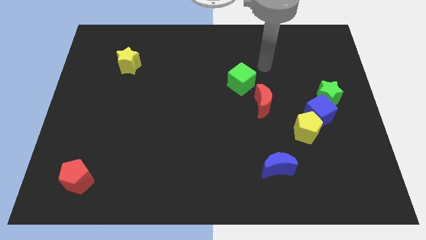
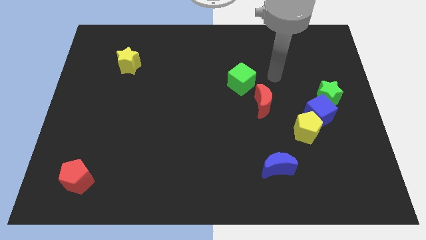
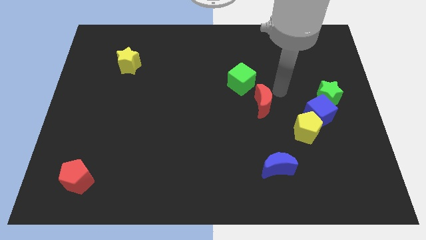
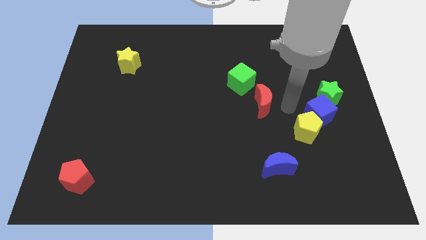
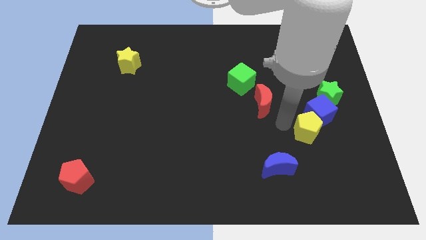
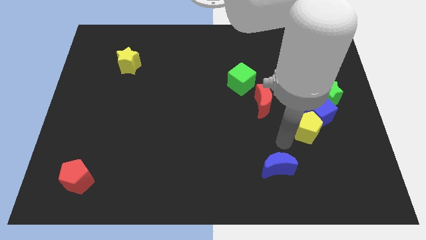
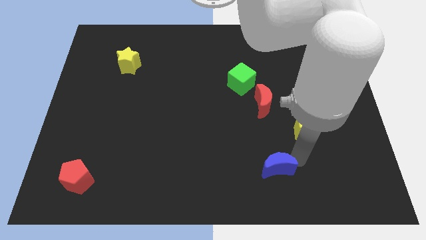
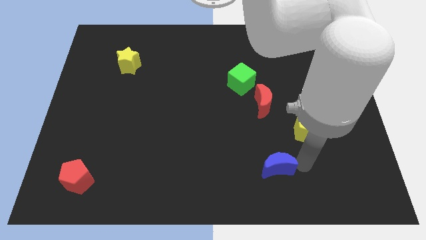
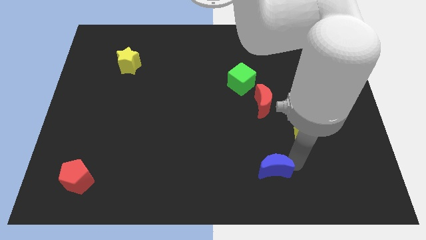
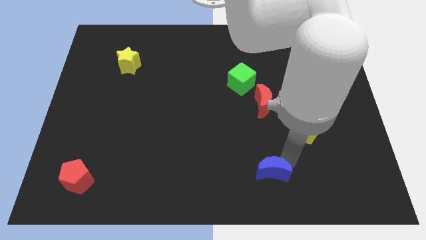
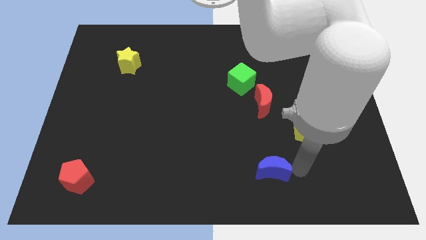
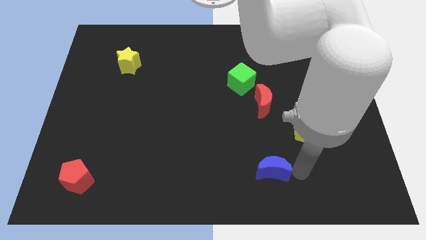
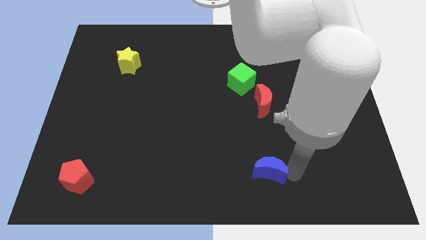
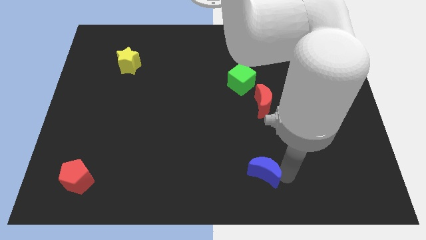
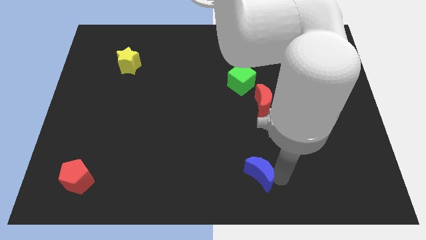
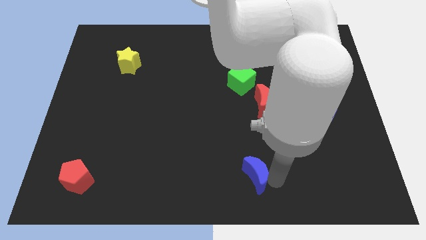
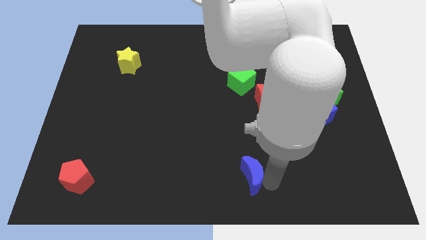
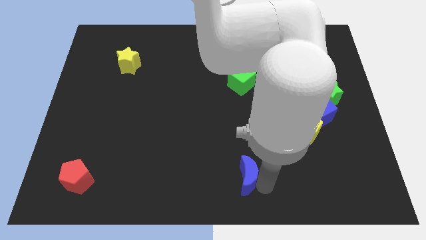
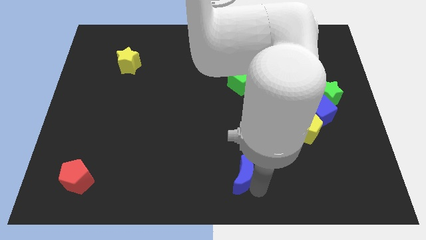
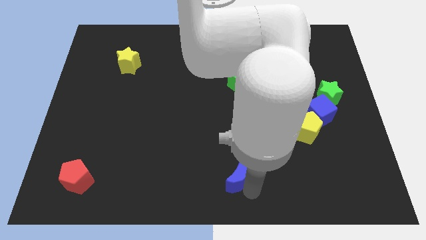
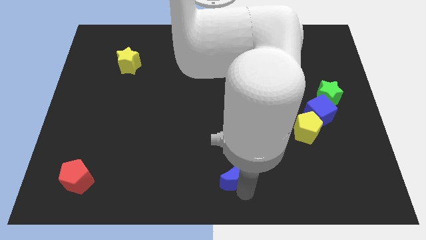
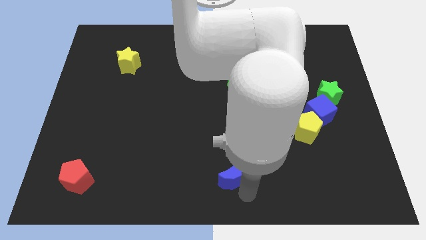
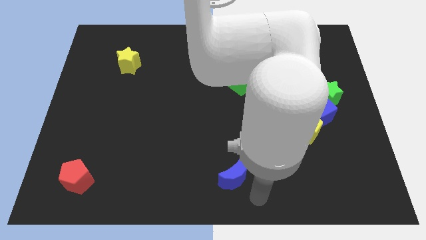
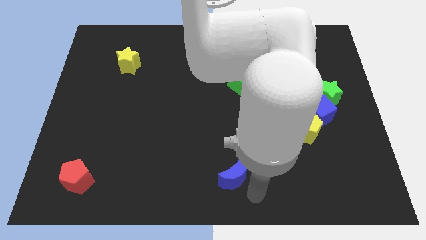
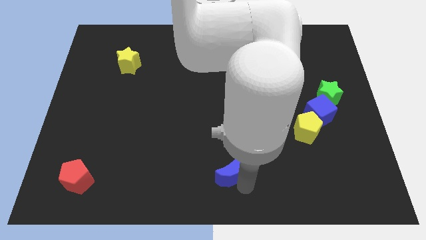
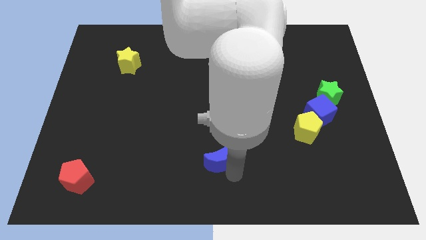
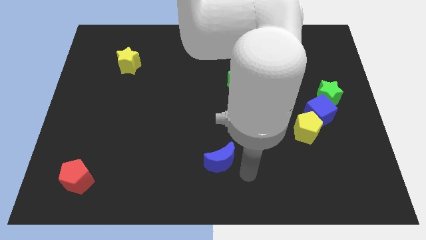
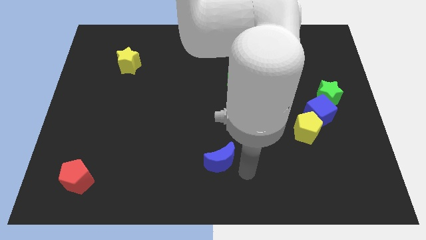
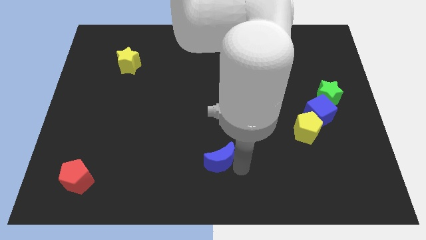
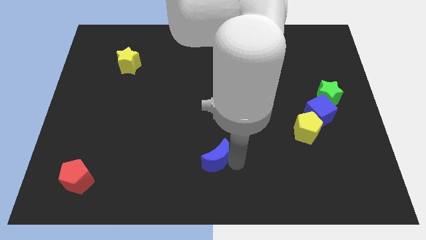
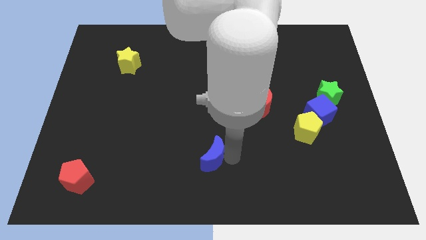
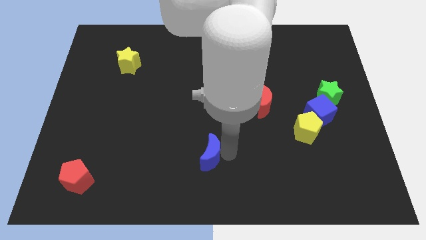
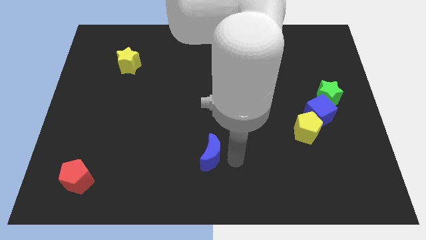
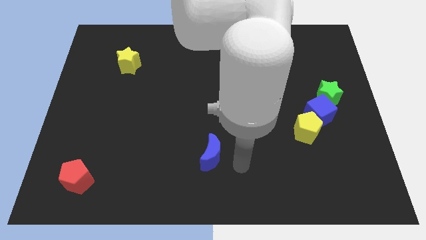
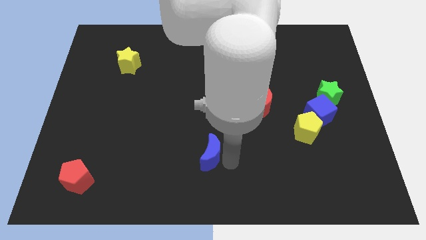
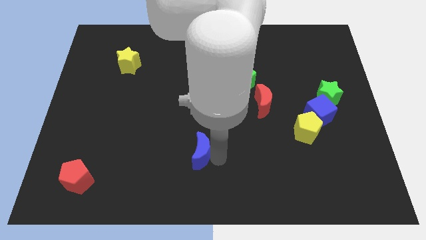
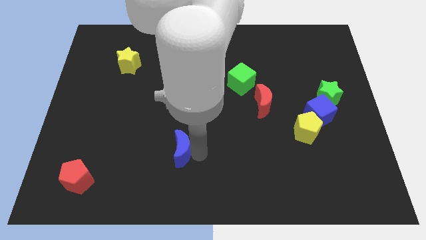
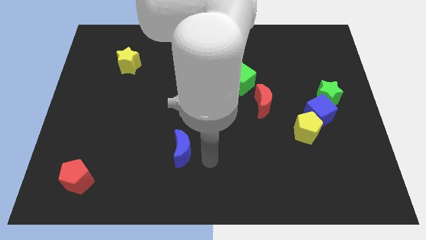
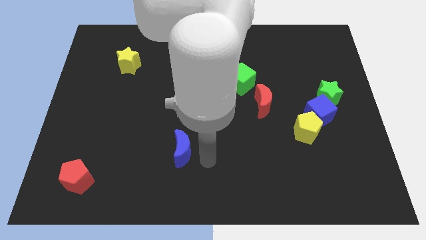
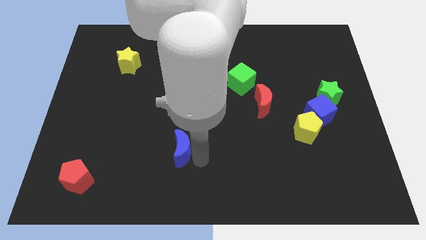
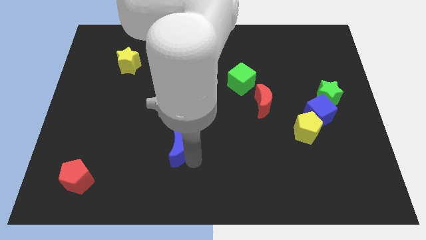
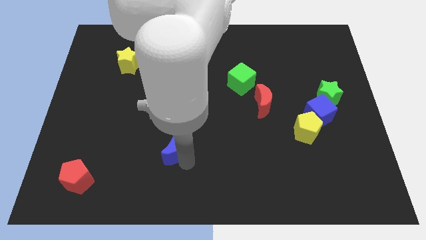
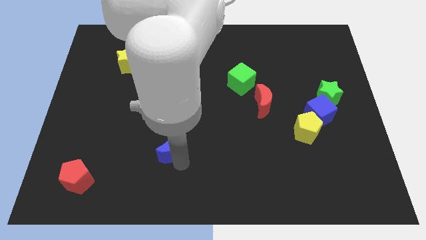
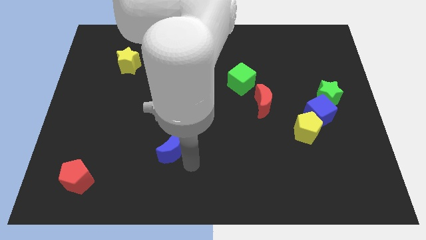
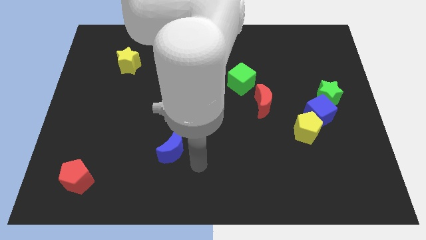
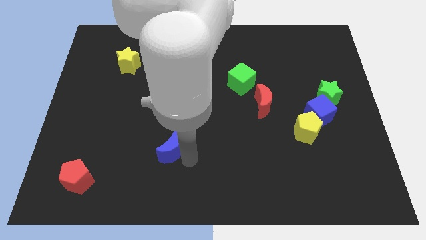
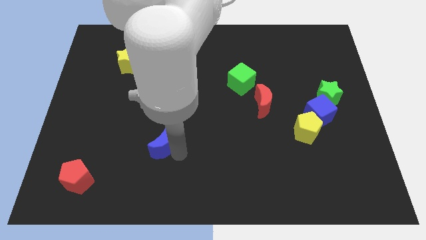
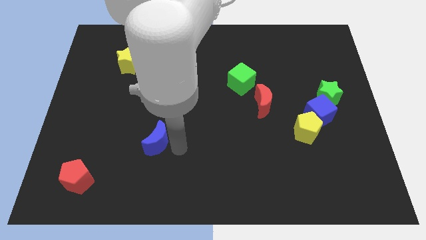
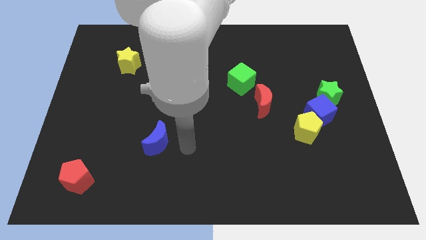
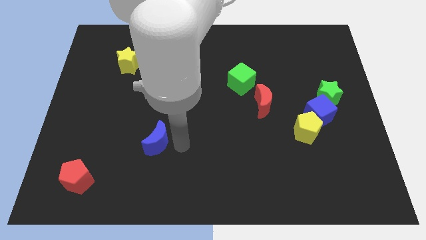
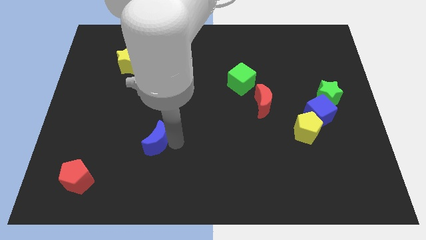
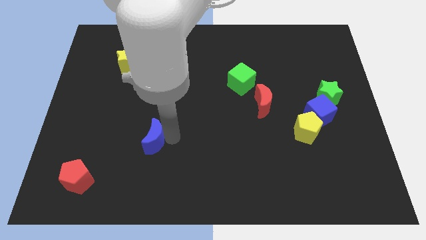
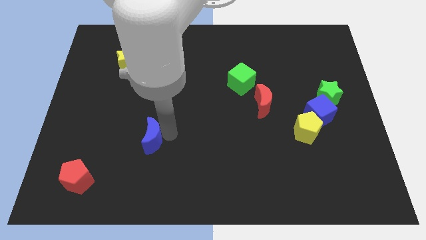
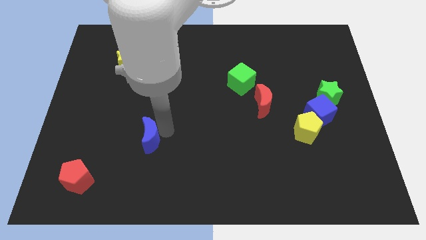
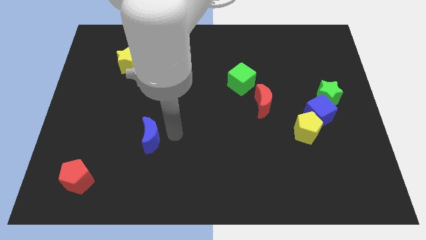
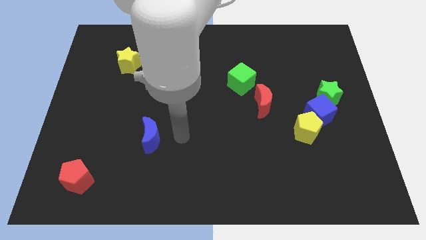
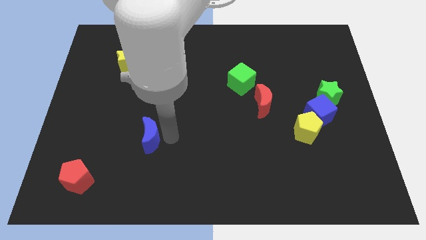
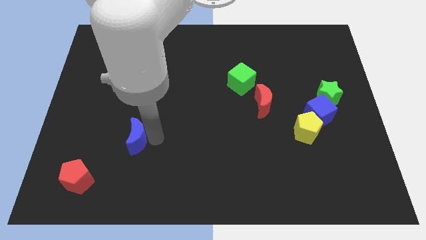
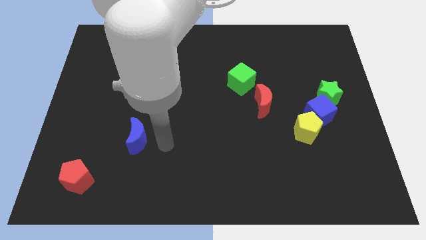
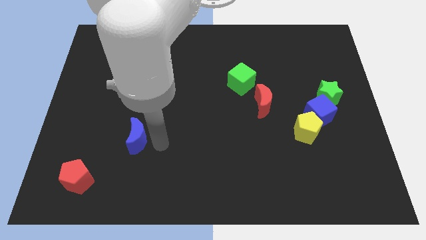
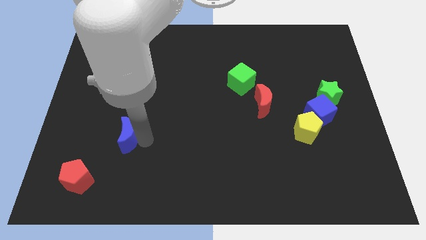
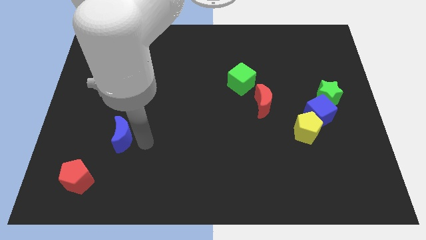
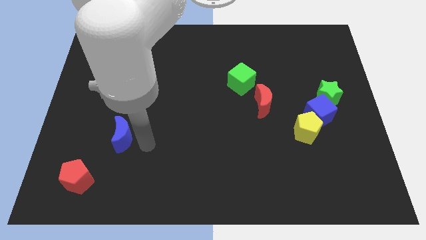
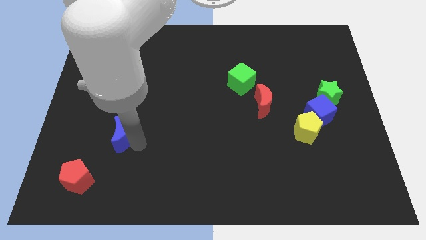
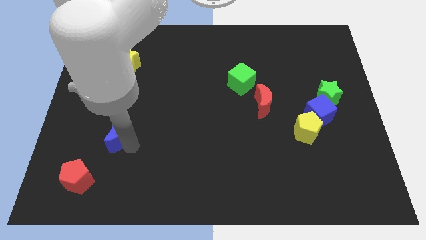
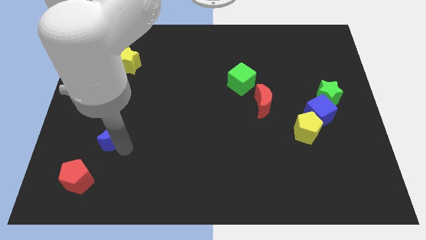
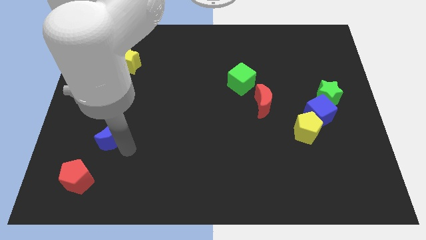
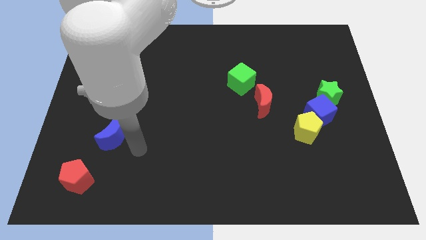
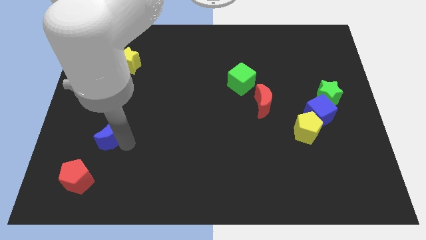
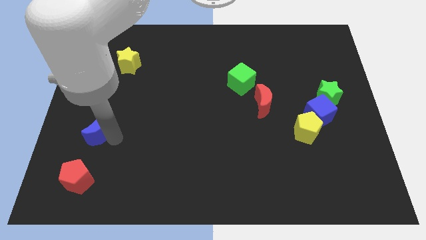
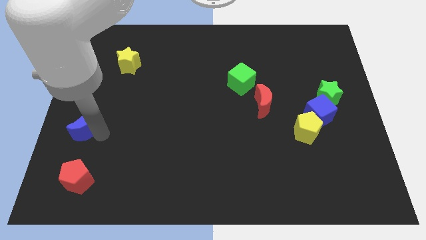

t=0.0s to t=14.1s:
move the blue moon to the left side of the board
